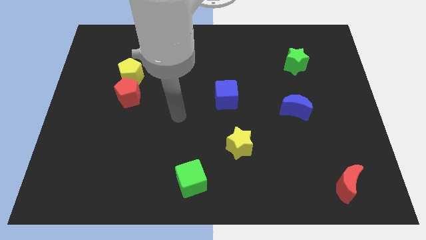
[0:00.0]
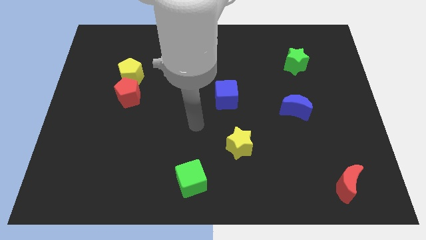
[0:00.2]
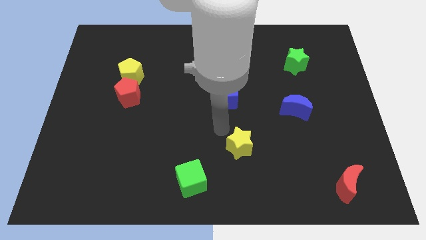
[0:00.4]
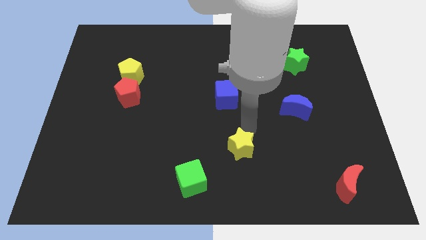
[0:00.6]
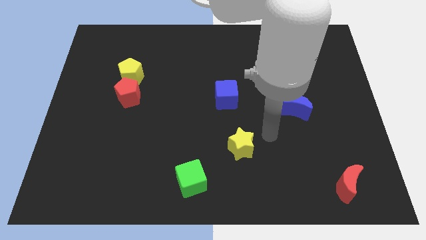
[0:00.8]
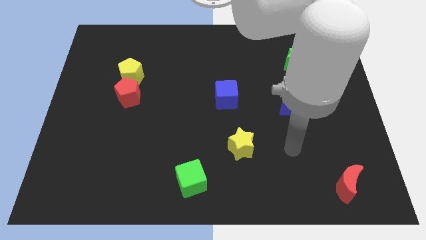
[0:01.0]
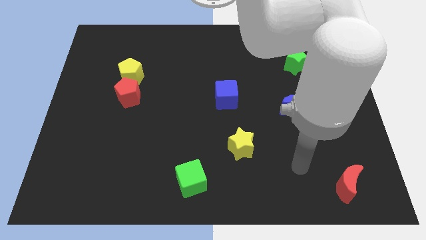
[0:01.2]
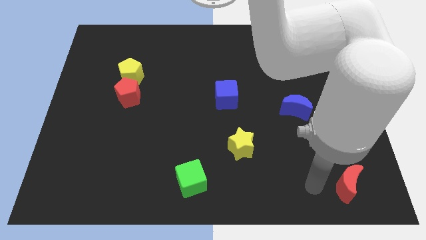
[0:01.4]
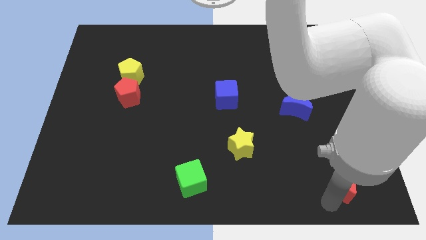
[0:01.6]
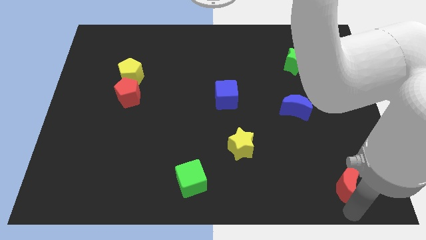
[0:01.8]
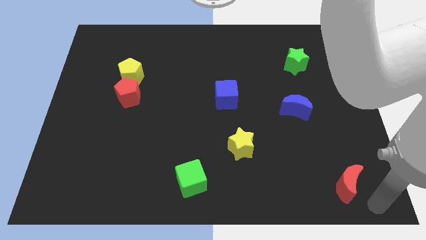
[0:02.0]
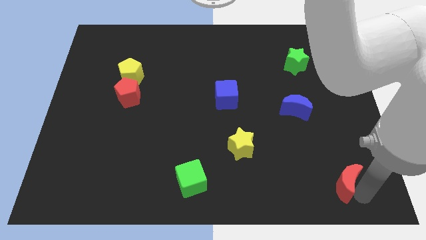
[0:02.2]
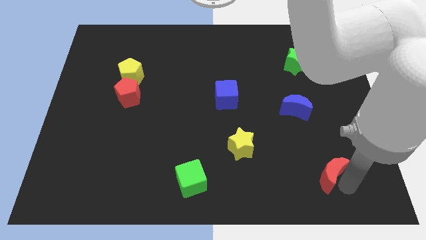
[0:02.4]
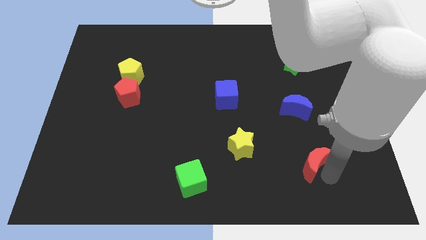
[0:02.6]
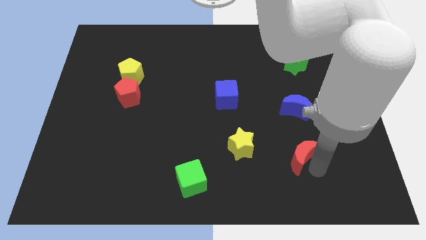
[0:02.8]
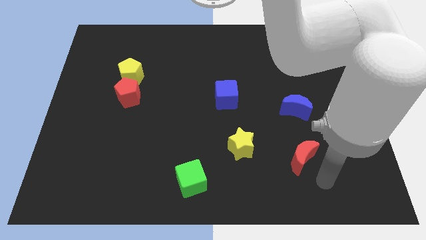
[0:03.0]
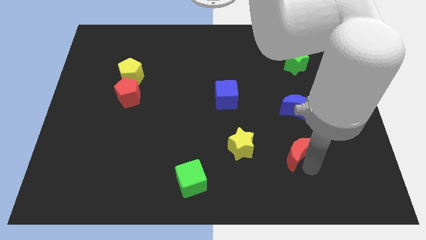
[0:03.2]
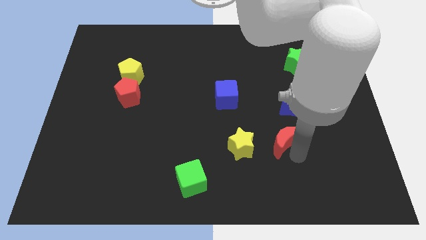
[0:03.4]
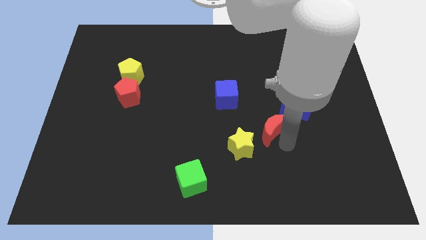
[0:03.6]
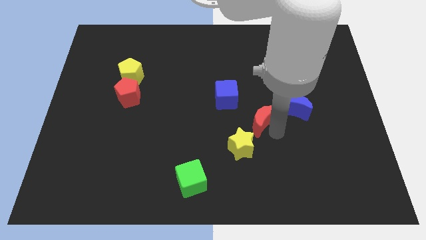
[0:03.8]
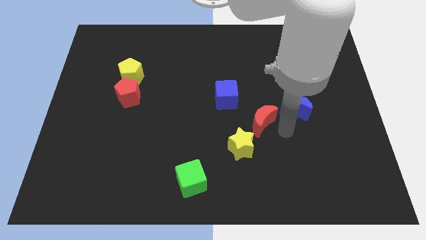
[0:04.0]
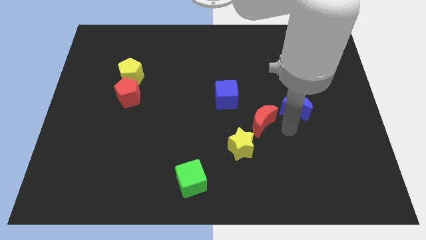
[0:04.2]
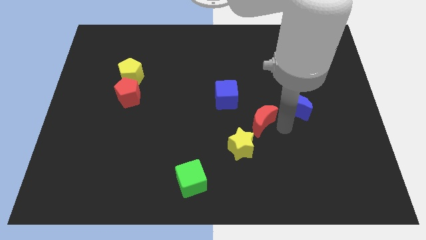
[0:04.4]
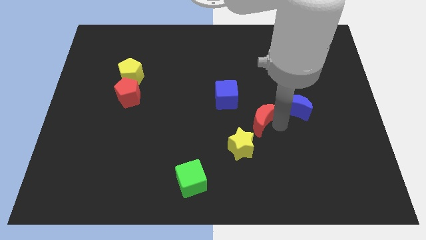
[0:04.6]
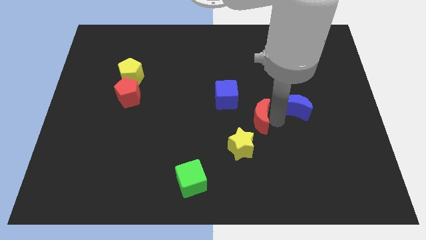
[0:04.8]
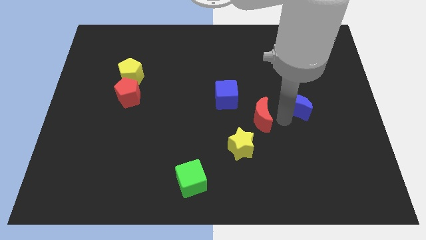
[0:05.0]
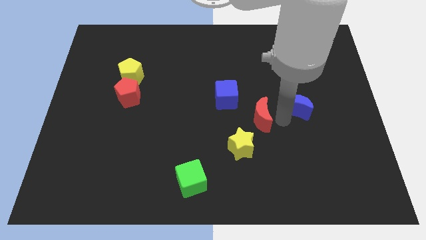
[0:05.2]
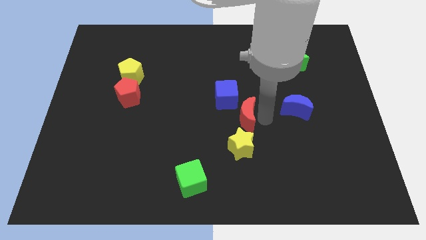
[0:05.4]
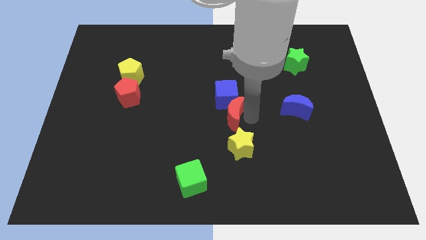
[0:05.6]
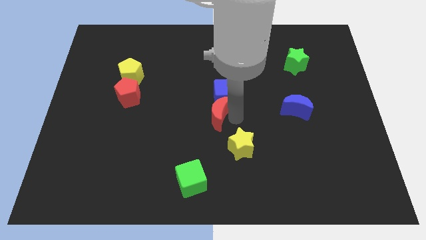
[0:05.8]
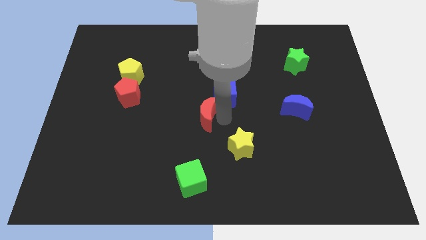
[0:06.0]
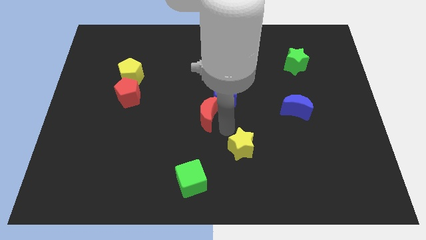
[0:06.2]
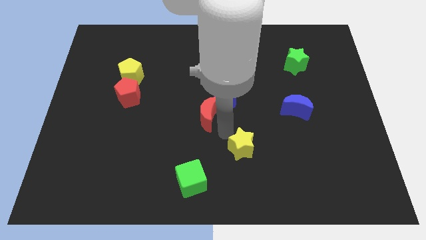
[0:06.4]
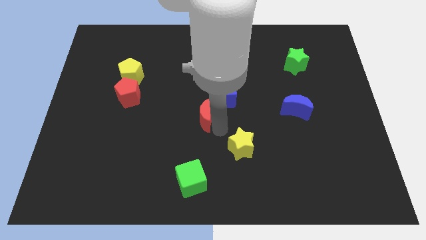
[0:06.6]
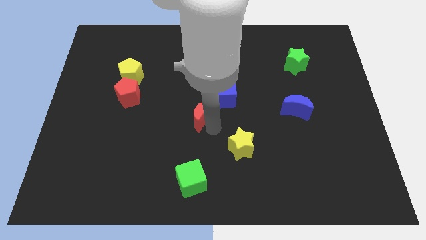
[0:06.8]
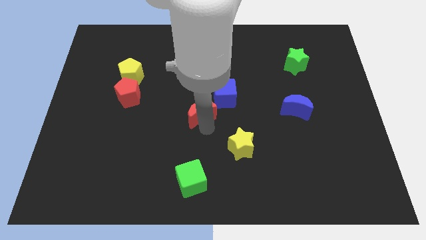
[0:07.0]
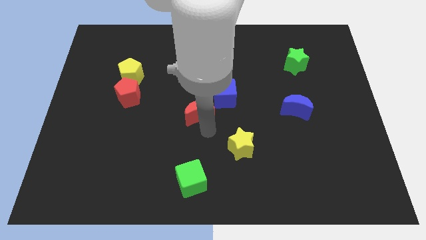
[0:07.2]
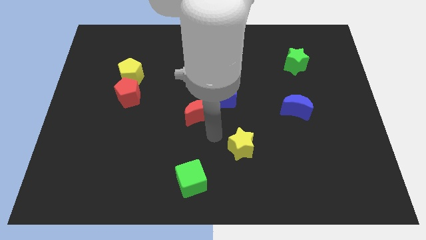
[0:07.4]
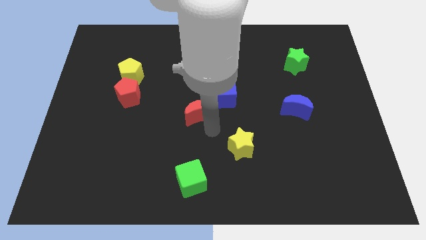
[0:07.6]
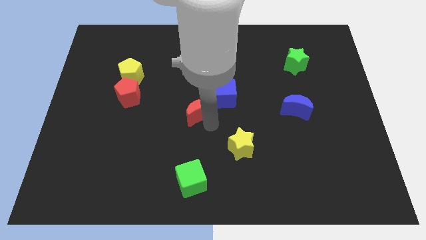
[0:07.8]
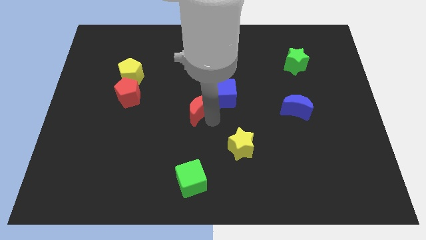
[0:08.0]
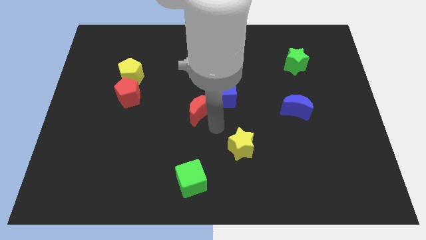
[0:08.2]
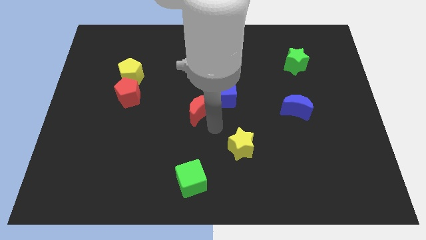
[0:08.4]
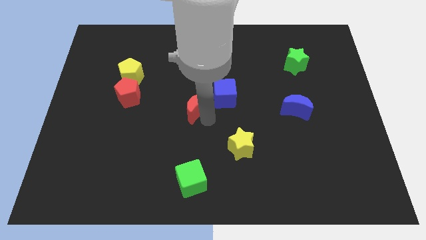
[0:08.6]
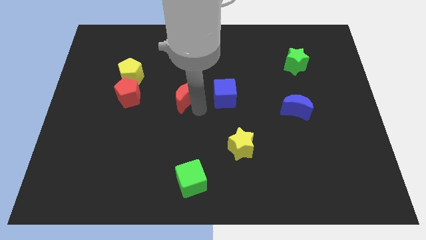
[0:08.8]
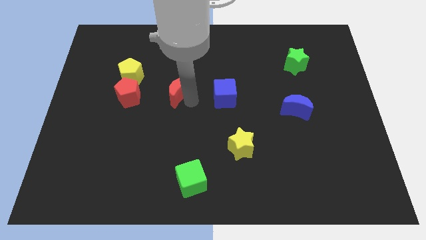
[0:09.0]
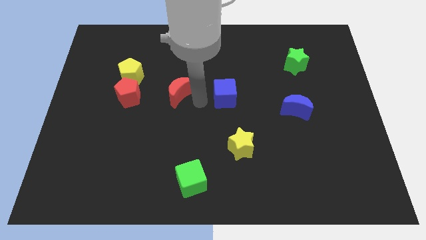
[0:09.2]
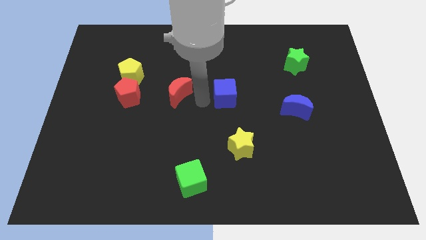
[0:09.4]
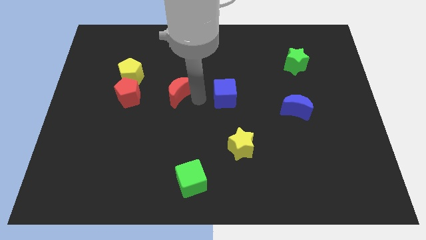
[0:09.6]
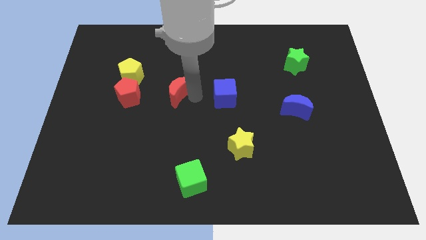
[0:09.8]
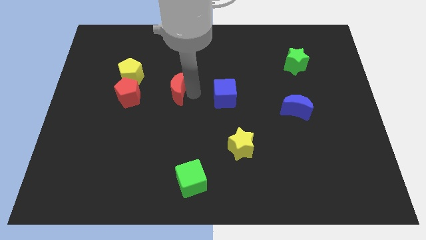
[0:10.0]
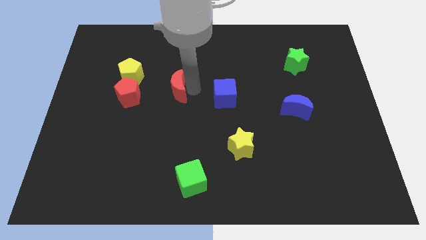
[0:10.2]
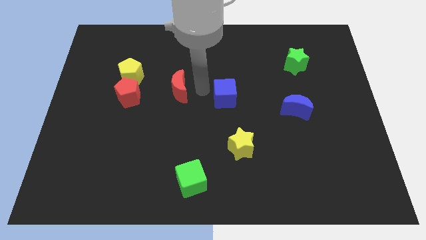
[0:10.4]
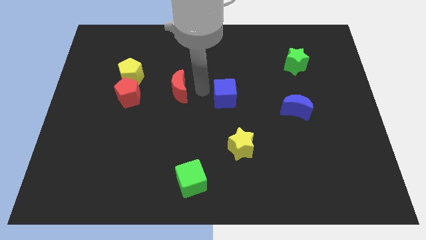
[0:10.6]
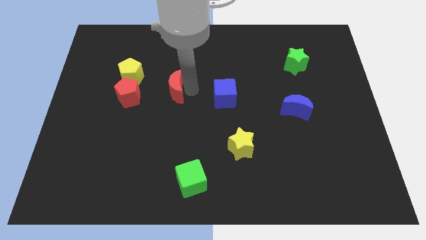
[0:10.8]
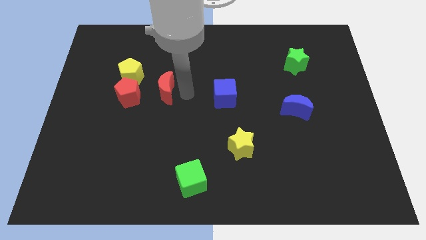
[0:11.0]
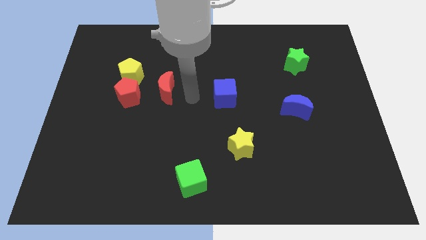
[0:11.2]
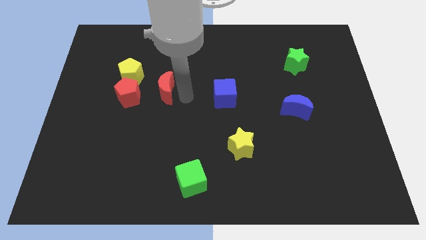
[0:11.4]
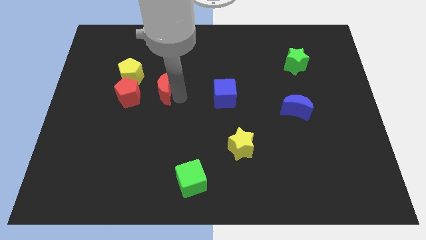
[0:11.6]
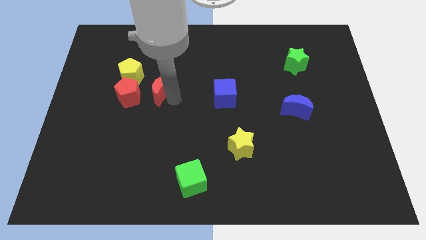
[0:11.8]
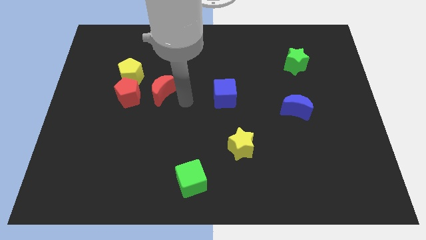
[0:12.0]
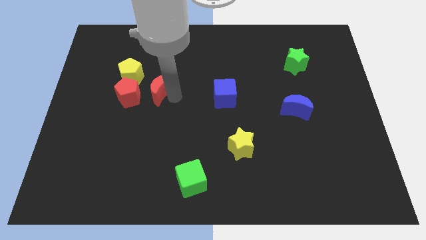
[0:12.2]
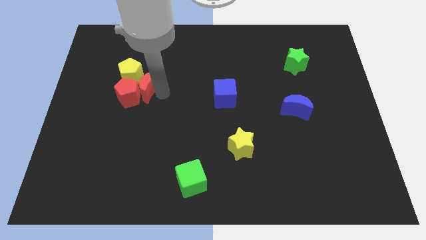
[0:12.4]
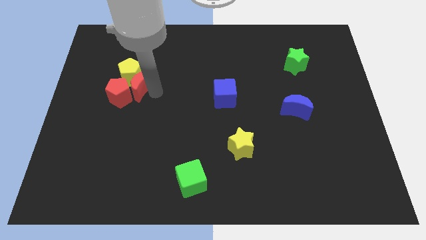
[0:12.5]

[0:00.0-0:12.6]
put the red moon next to the yellow pentagon

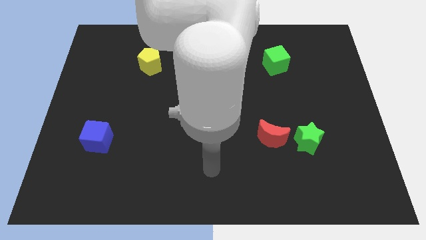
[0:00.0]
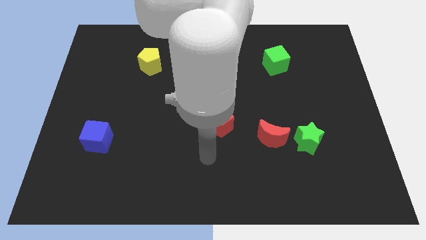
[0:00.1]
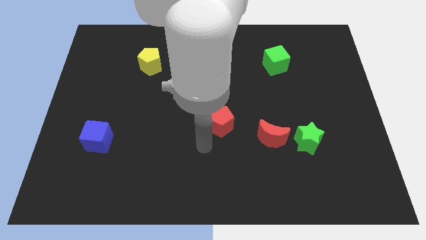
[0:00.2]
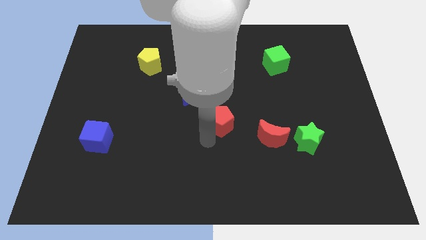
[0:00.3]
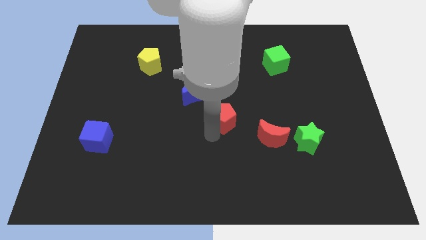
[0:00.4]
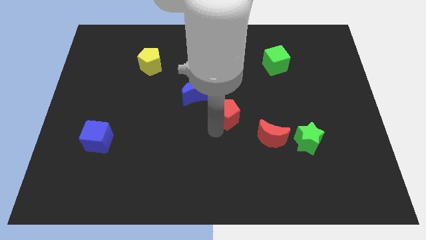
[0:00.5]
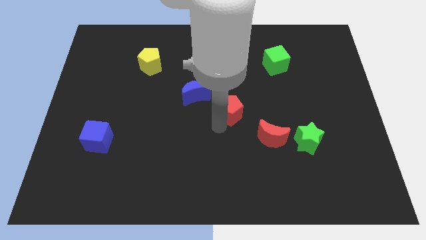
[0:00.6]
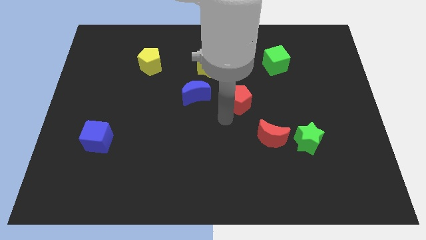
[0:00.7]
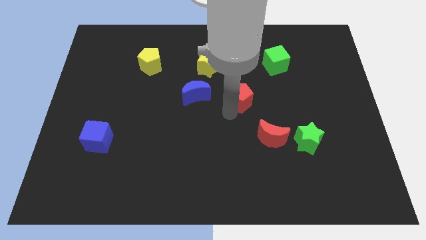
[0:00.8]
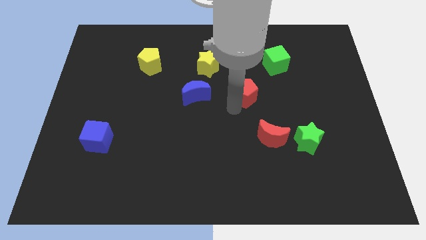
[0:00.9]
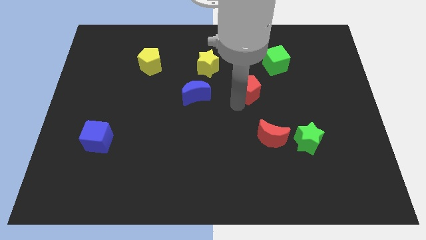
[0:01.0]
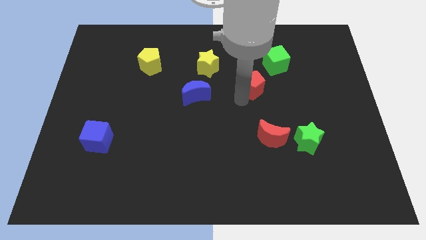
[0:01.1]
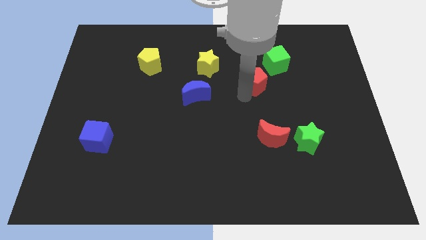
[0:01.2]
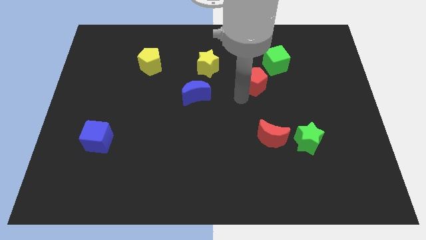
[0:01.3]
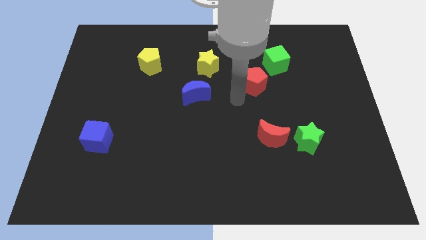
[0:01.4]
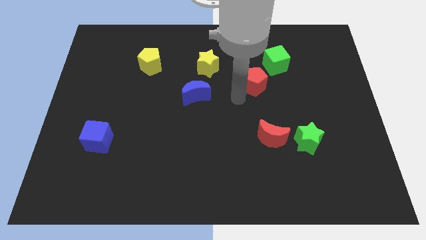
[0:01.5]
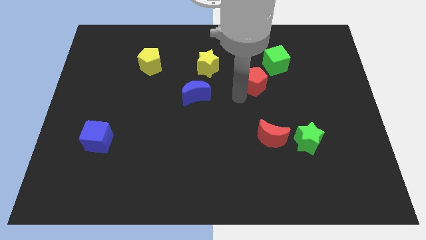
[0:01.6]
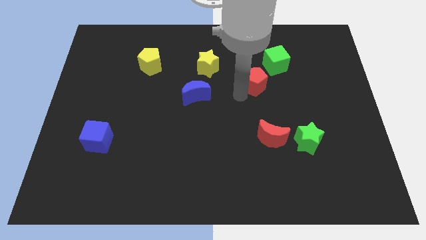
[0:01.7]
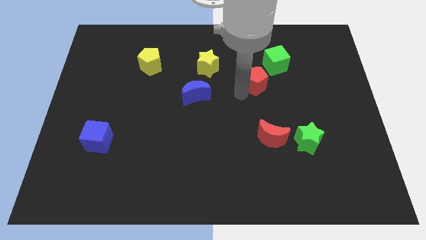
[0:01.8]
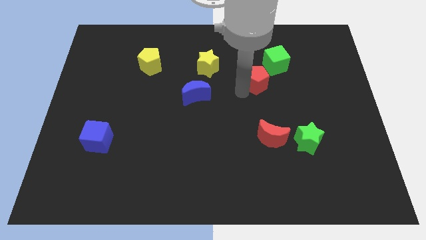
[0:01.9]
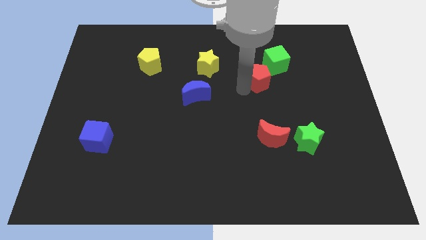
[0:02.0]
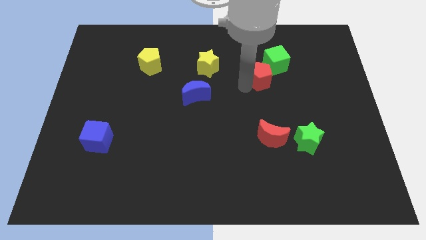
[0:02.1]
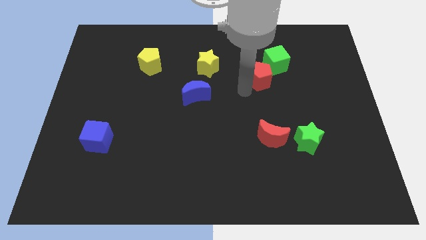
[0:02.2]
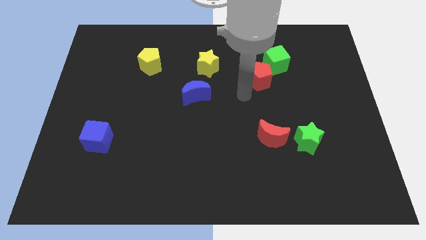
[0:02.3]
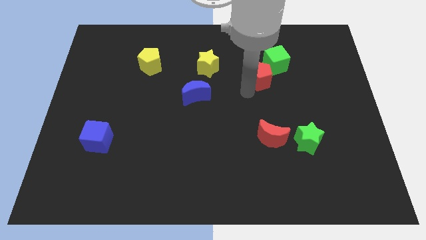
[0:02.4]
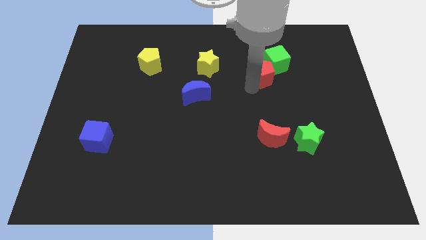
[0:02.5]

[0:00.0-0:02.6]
slide the red pentagon close to the green cube
